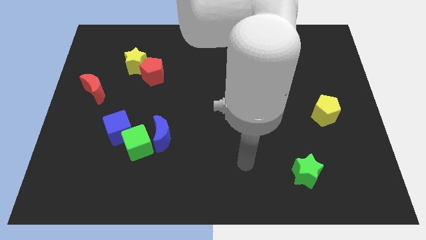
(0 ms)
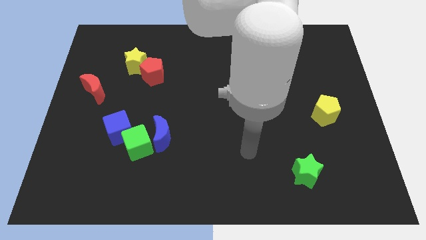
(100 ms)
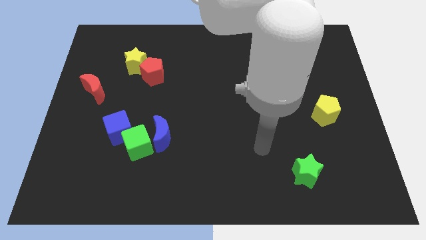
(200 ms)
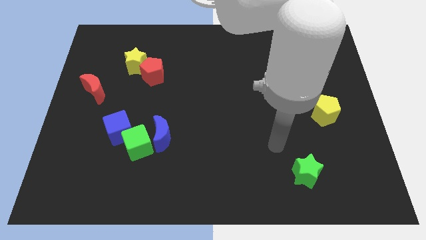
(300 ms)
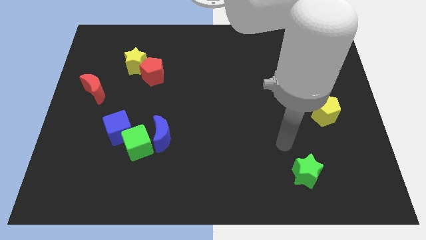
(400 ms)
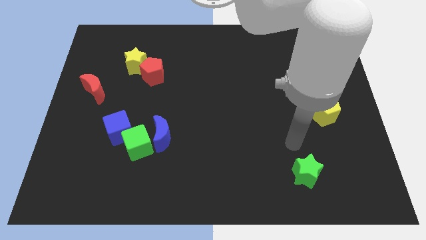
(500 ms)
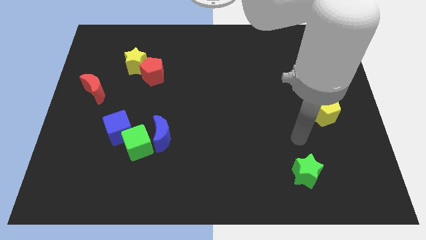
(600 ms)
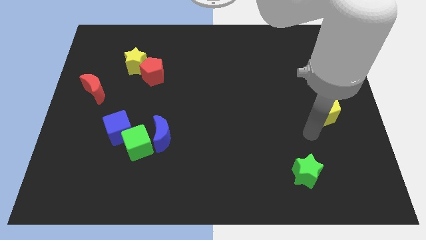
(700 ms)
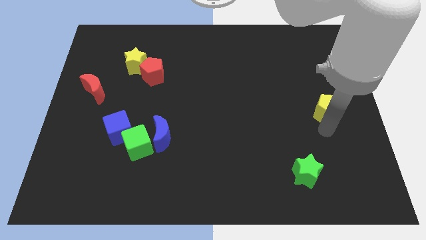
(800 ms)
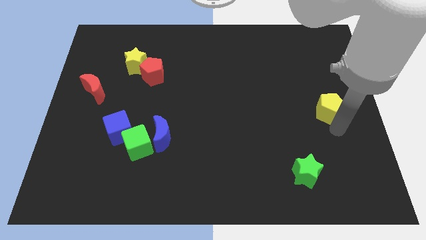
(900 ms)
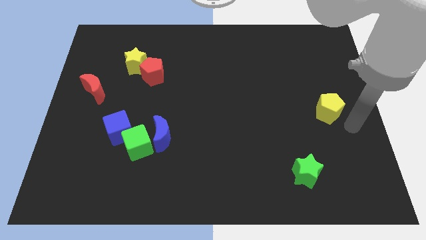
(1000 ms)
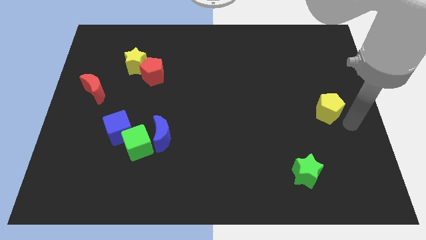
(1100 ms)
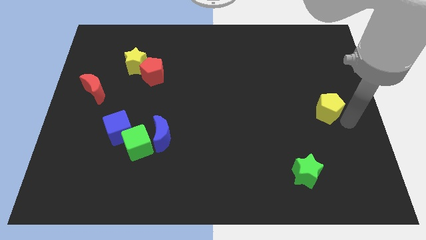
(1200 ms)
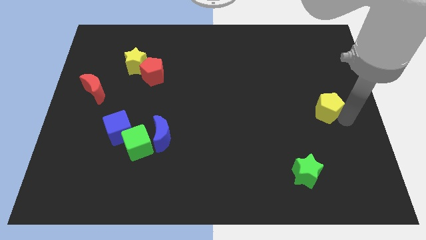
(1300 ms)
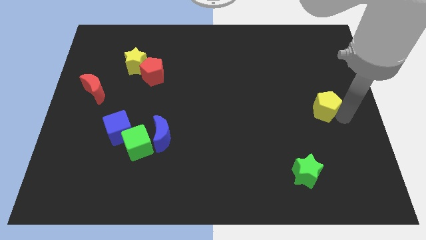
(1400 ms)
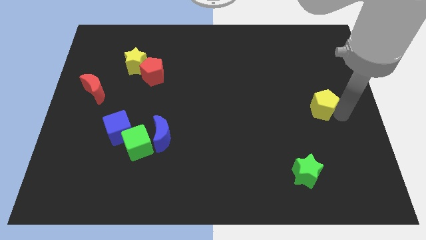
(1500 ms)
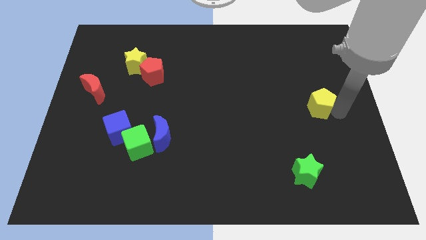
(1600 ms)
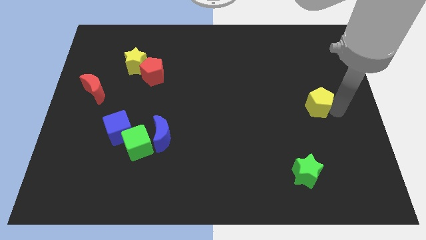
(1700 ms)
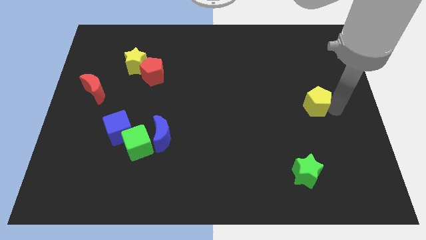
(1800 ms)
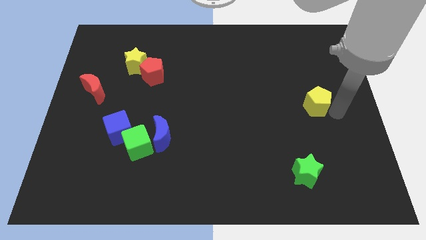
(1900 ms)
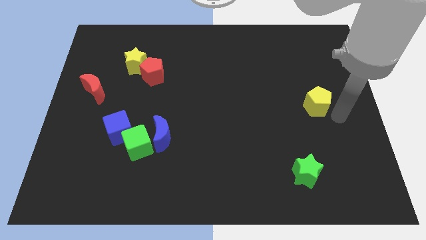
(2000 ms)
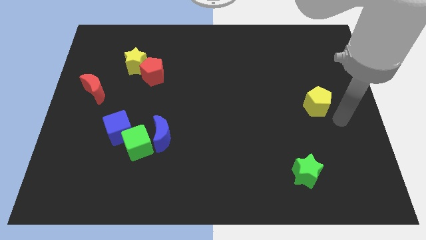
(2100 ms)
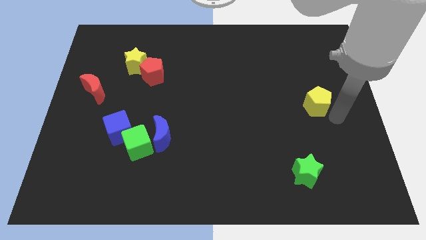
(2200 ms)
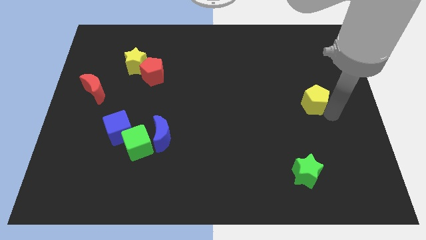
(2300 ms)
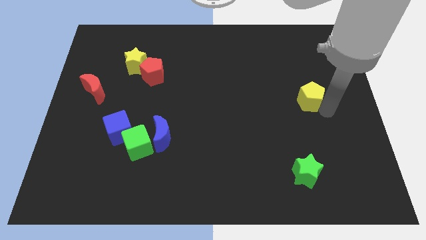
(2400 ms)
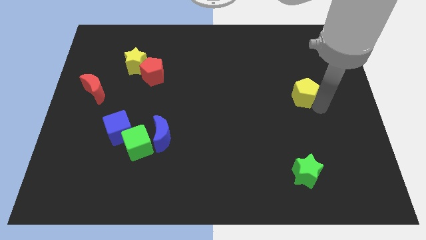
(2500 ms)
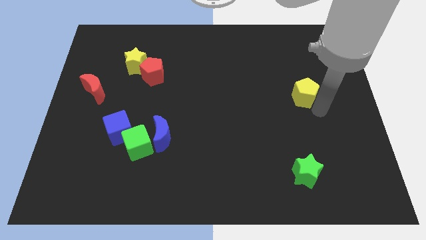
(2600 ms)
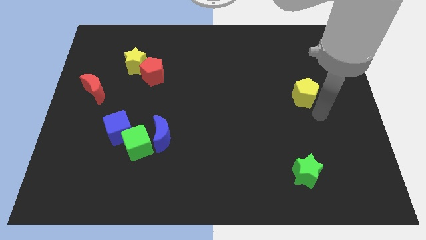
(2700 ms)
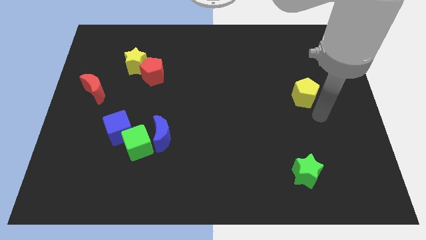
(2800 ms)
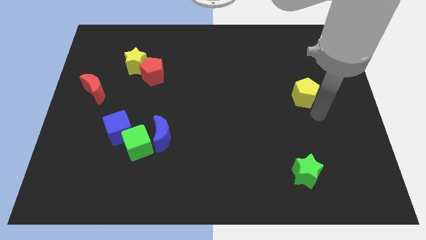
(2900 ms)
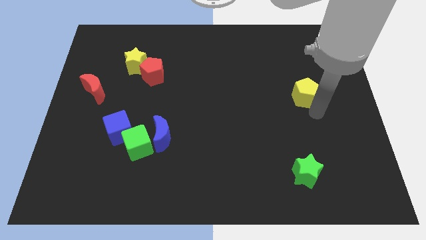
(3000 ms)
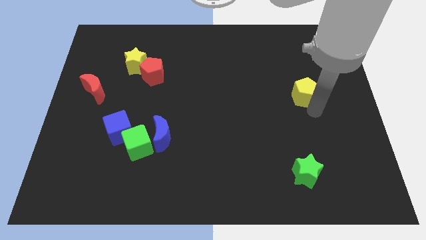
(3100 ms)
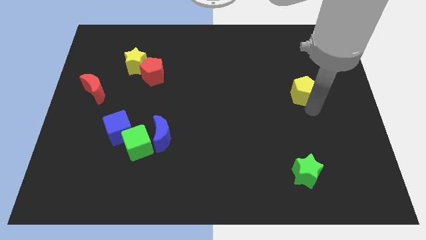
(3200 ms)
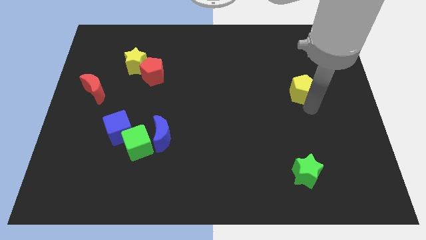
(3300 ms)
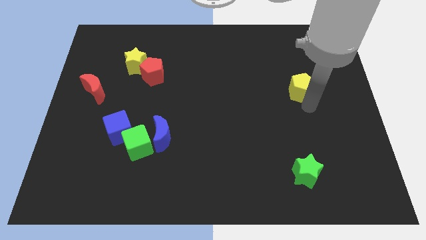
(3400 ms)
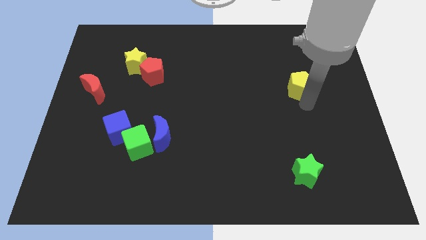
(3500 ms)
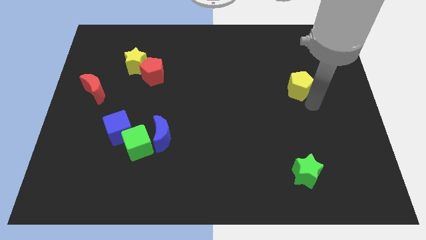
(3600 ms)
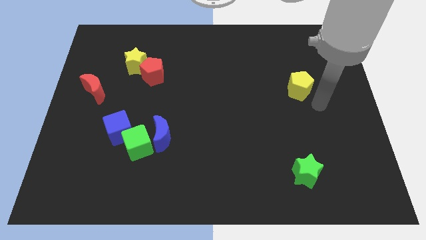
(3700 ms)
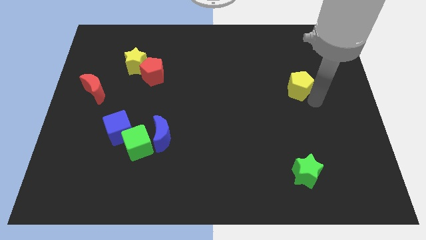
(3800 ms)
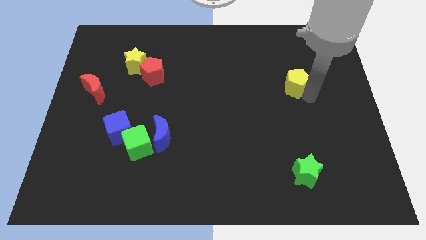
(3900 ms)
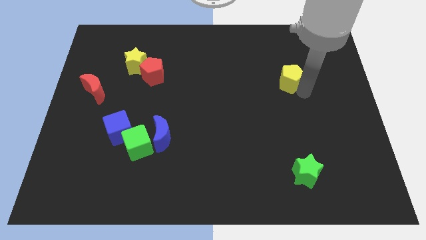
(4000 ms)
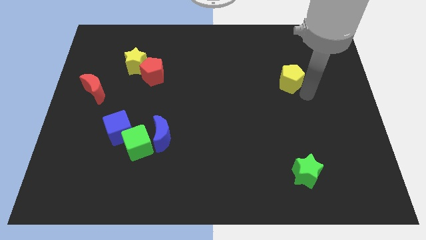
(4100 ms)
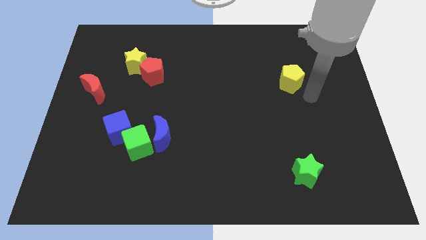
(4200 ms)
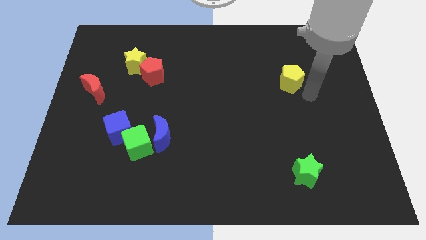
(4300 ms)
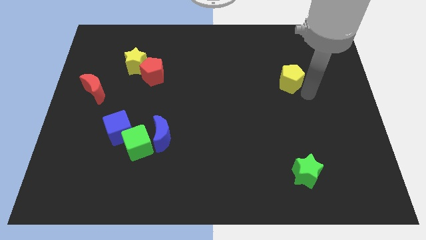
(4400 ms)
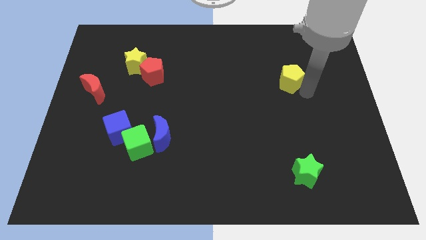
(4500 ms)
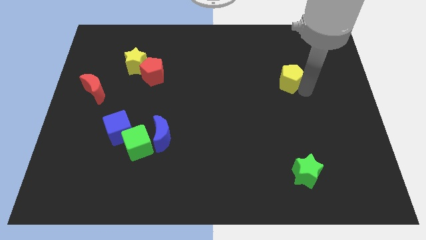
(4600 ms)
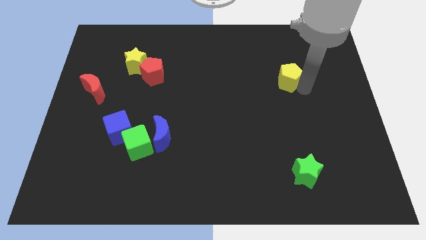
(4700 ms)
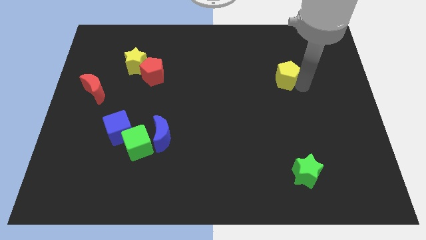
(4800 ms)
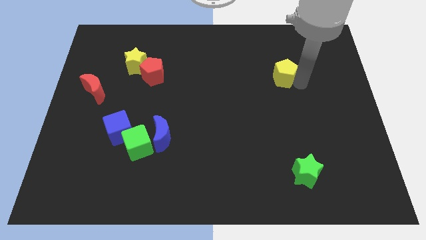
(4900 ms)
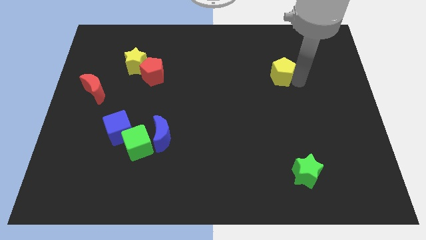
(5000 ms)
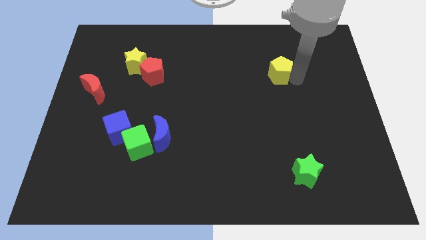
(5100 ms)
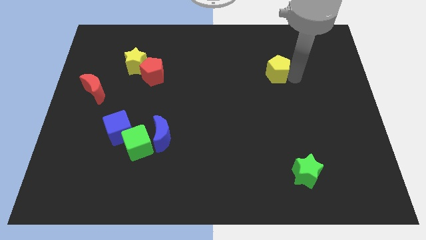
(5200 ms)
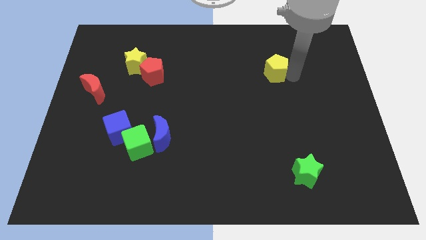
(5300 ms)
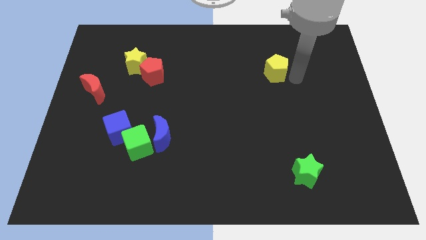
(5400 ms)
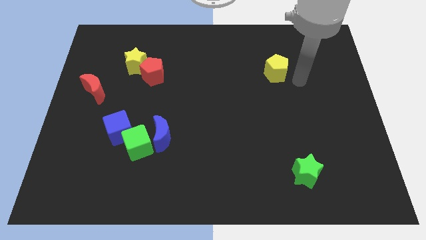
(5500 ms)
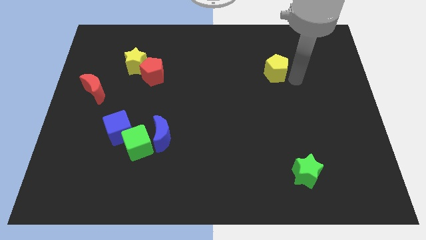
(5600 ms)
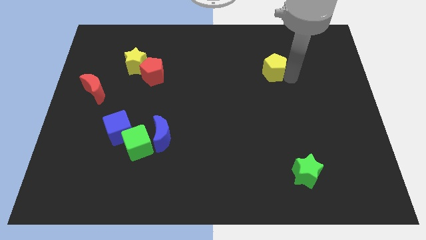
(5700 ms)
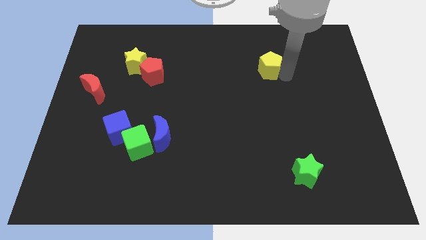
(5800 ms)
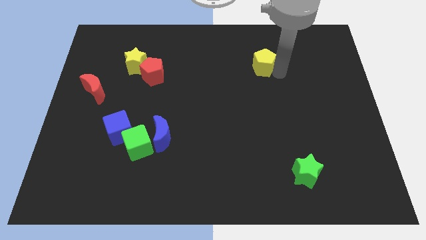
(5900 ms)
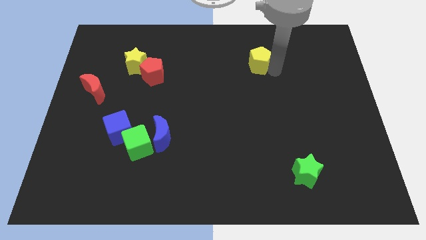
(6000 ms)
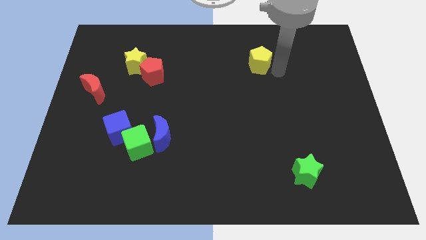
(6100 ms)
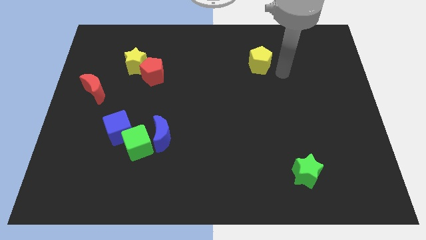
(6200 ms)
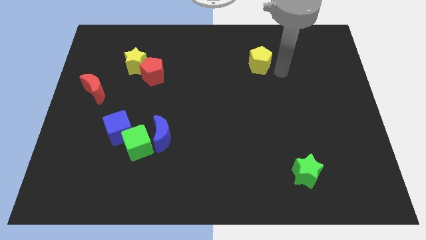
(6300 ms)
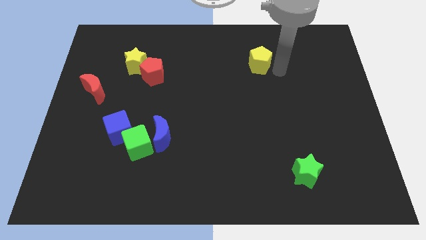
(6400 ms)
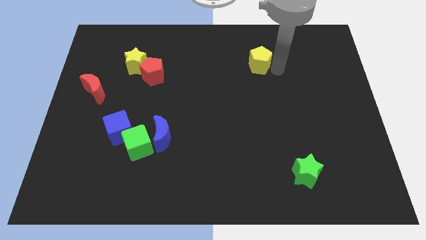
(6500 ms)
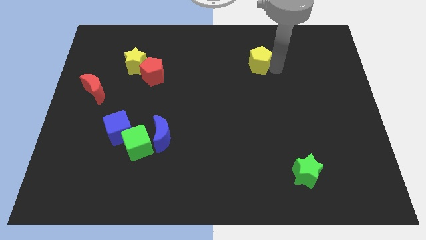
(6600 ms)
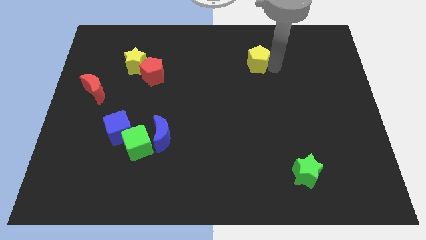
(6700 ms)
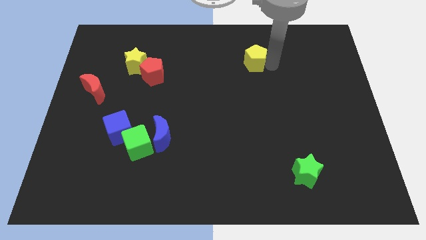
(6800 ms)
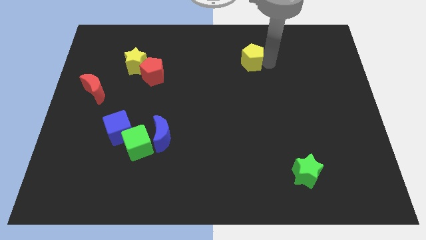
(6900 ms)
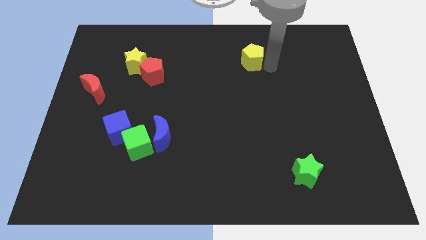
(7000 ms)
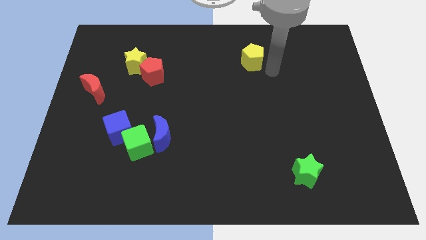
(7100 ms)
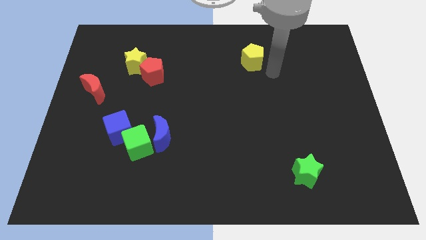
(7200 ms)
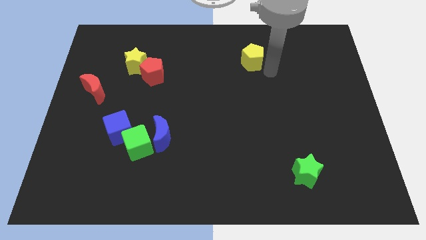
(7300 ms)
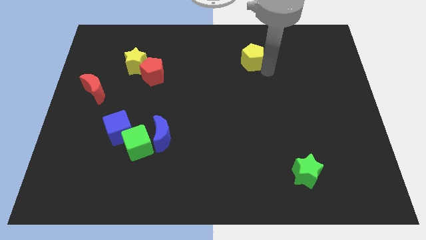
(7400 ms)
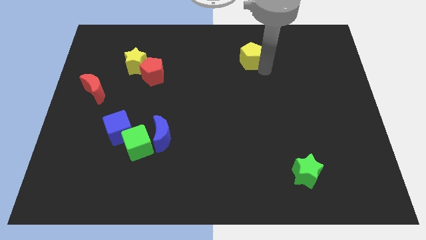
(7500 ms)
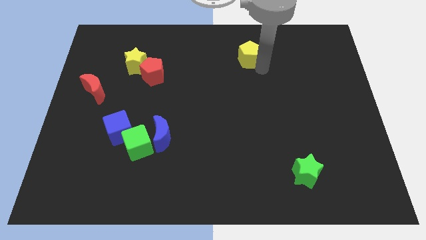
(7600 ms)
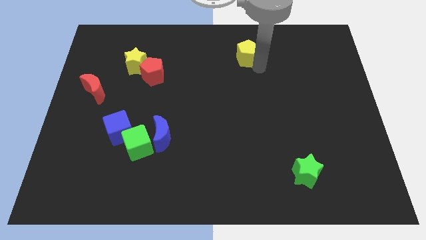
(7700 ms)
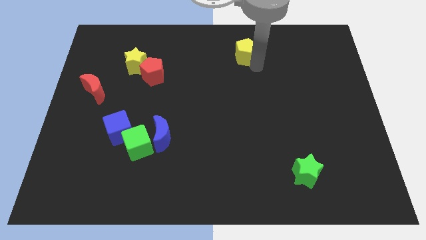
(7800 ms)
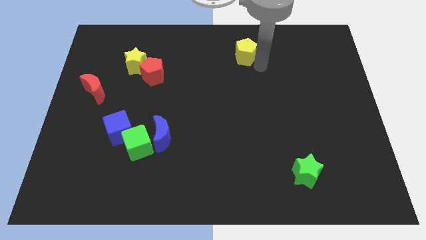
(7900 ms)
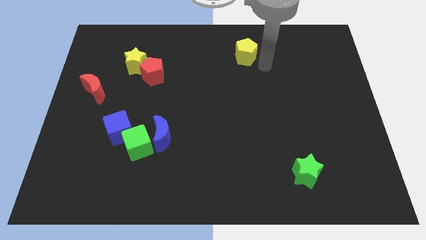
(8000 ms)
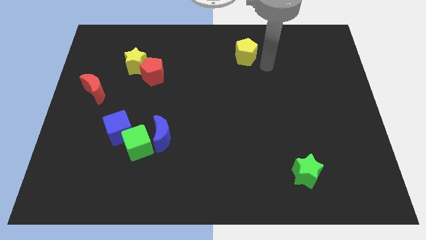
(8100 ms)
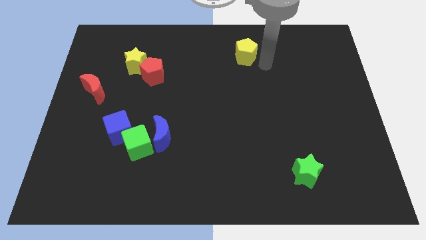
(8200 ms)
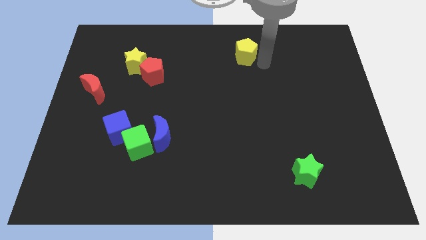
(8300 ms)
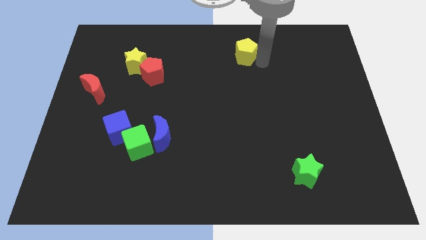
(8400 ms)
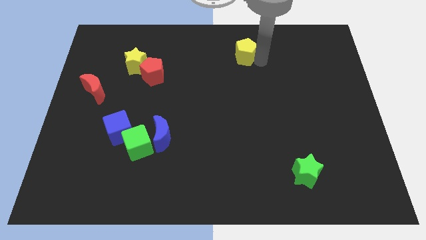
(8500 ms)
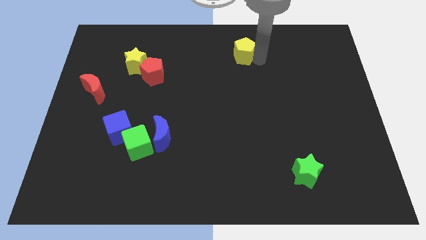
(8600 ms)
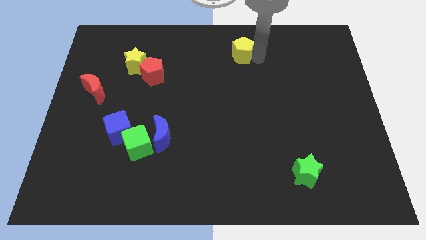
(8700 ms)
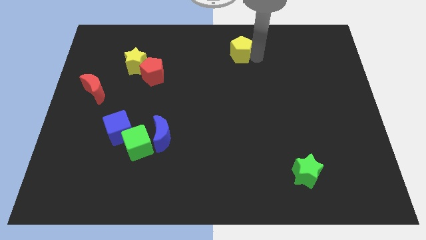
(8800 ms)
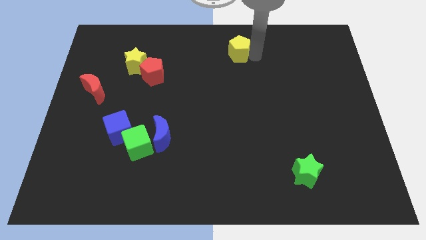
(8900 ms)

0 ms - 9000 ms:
move the yellow pentagon to the towards your base
